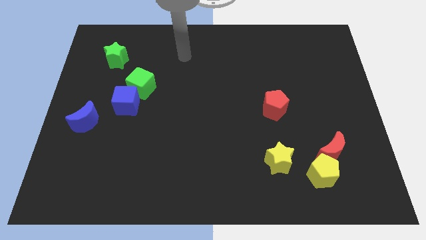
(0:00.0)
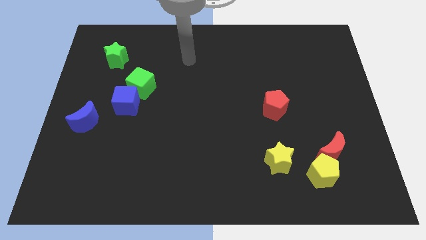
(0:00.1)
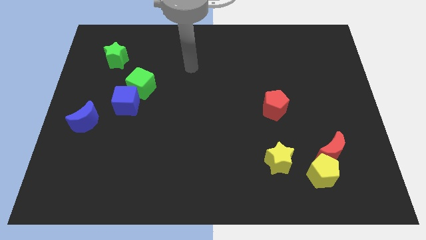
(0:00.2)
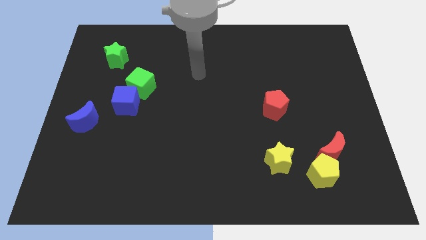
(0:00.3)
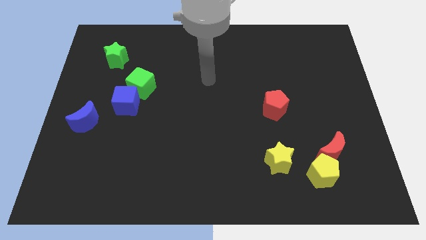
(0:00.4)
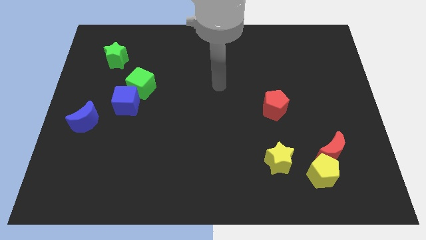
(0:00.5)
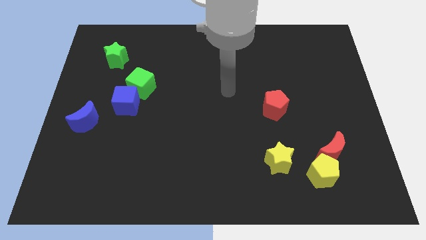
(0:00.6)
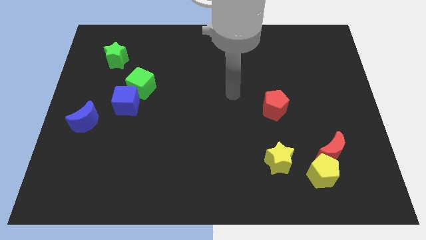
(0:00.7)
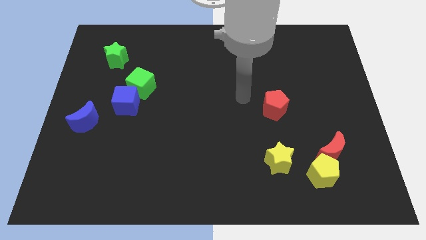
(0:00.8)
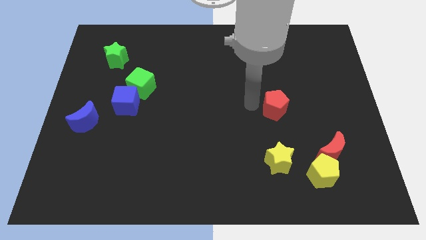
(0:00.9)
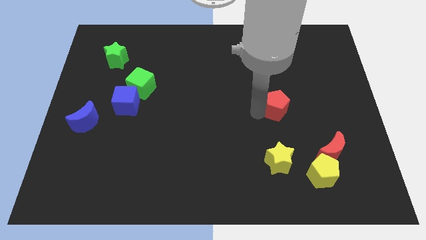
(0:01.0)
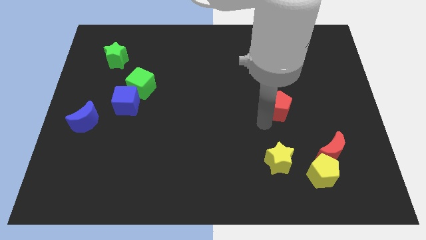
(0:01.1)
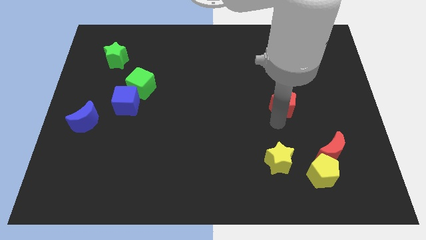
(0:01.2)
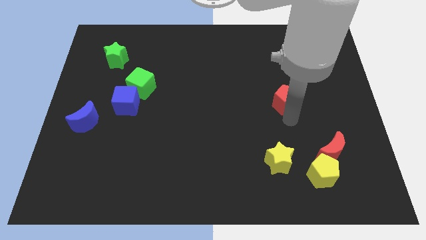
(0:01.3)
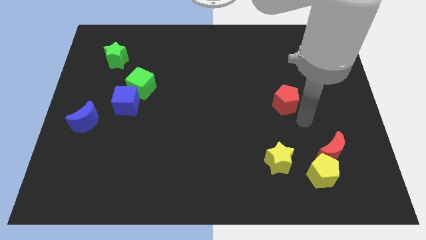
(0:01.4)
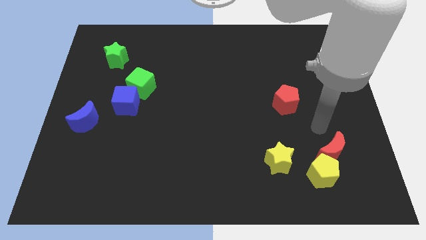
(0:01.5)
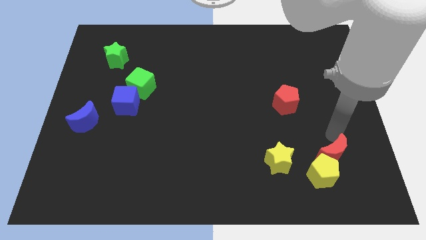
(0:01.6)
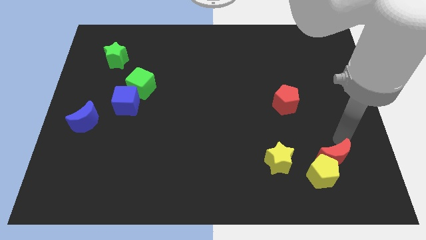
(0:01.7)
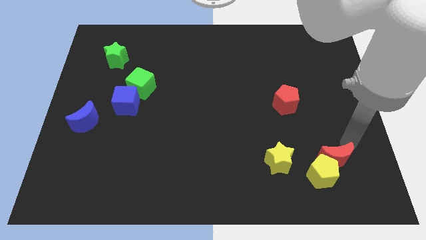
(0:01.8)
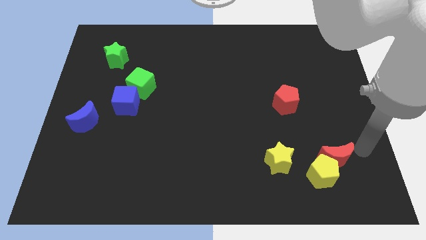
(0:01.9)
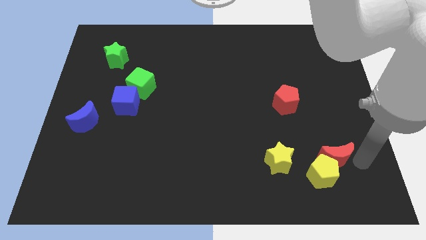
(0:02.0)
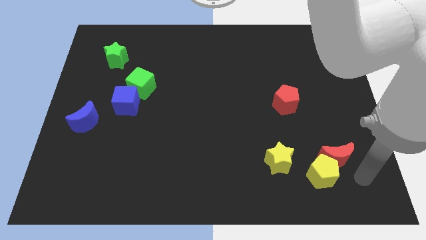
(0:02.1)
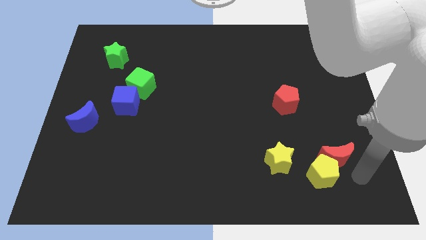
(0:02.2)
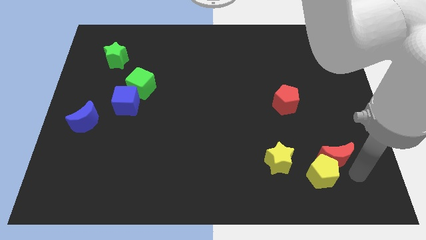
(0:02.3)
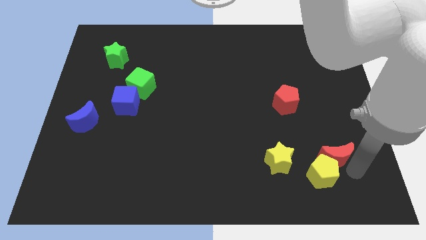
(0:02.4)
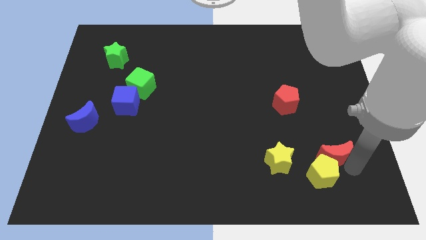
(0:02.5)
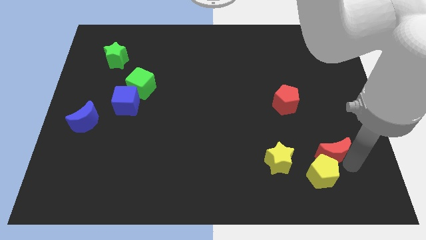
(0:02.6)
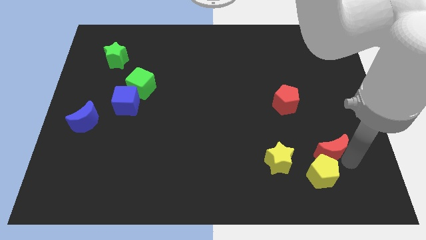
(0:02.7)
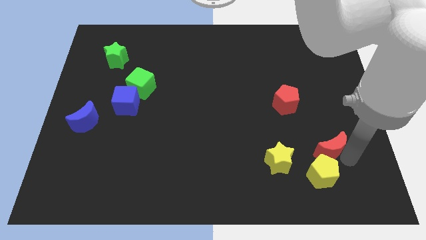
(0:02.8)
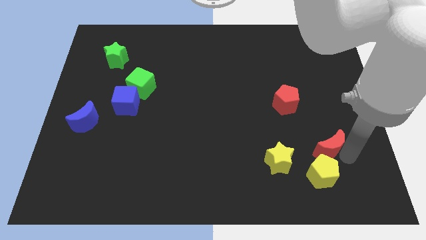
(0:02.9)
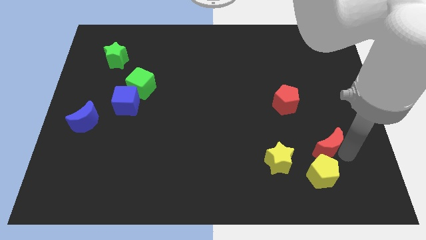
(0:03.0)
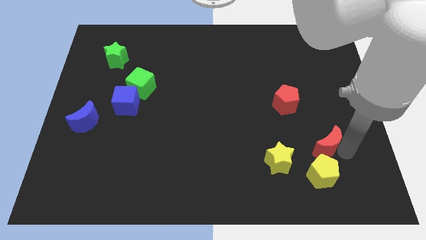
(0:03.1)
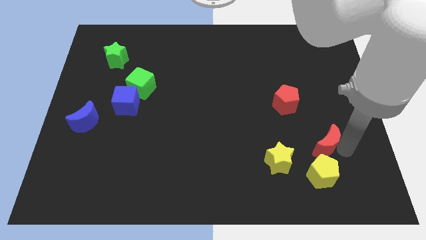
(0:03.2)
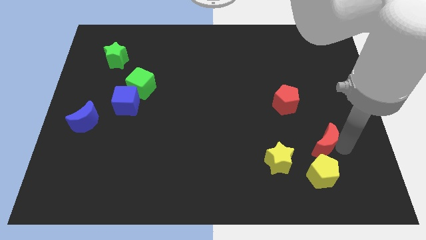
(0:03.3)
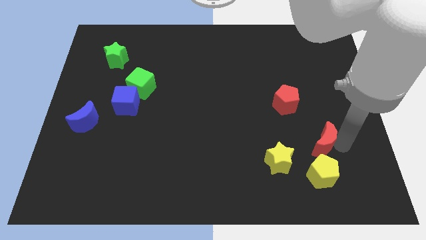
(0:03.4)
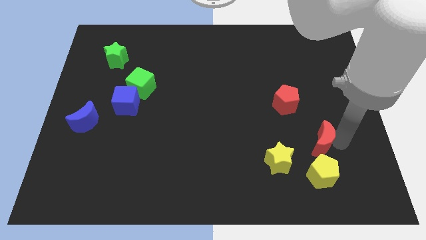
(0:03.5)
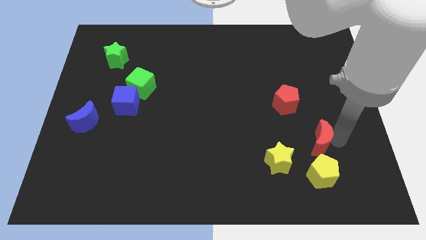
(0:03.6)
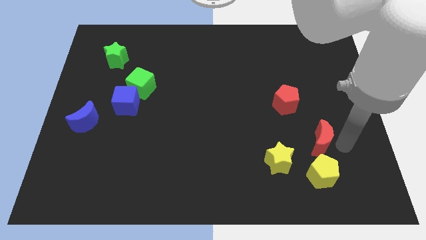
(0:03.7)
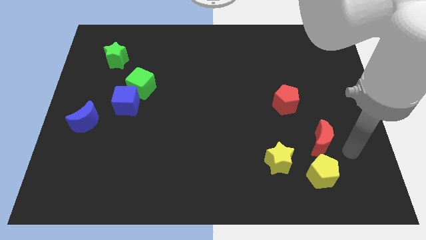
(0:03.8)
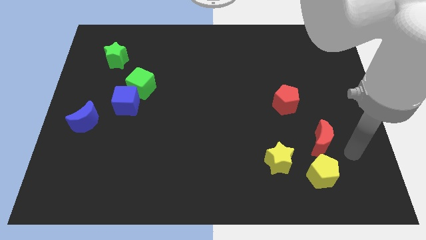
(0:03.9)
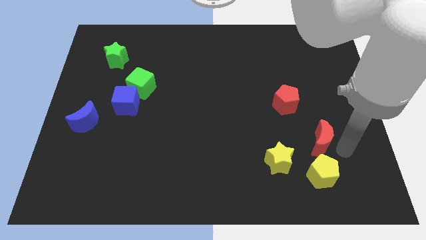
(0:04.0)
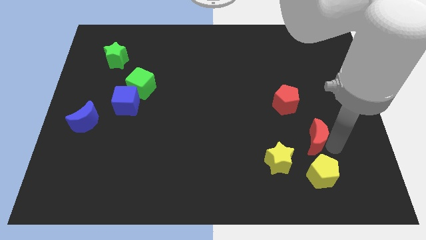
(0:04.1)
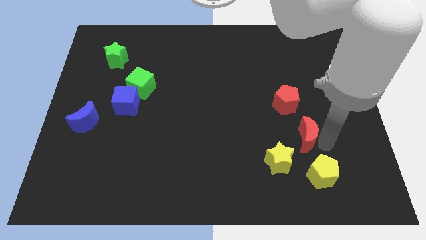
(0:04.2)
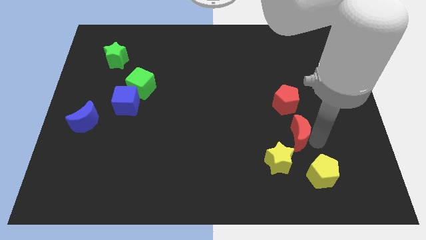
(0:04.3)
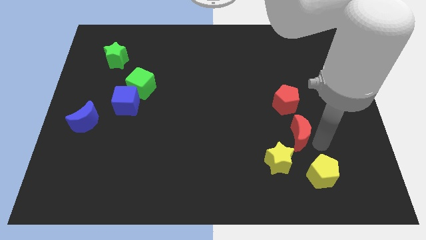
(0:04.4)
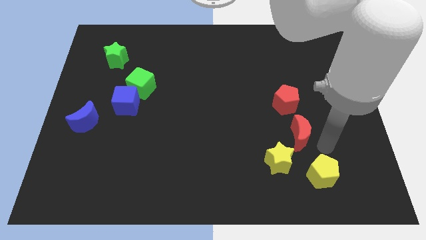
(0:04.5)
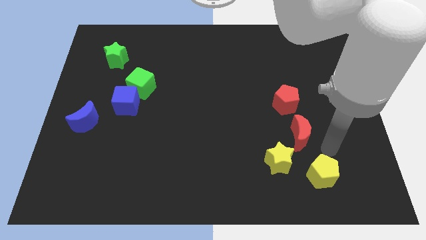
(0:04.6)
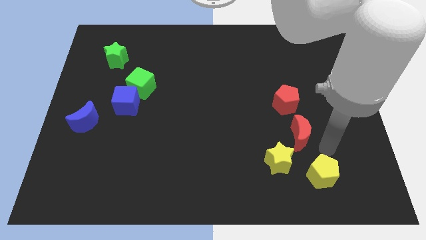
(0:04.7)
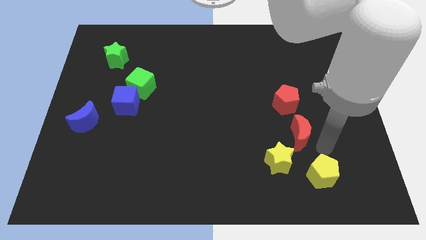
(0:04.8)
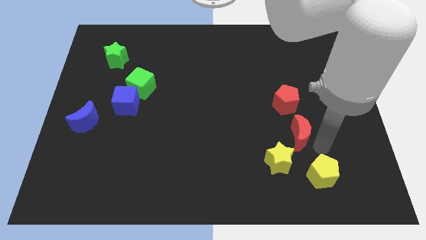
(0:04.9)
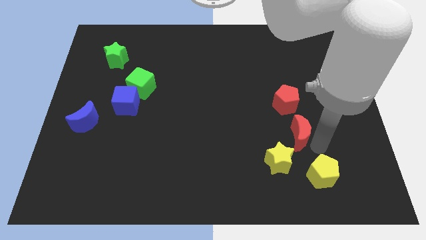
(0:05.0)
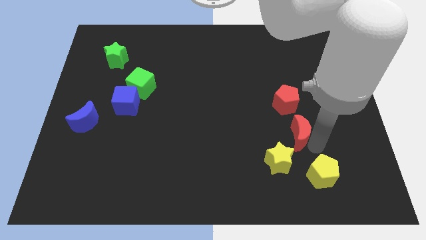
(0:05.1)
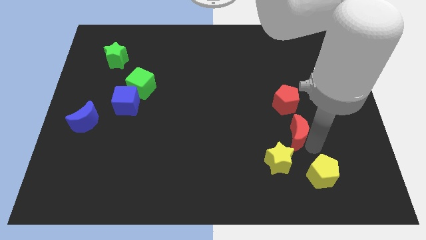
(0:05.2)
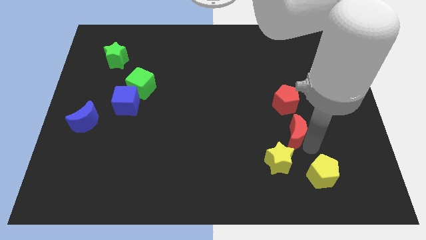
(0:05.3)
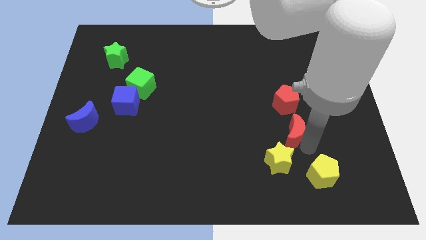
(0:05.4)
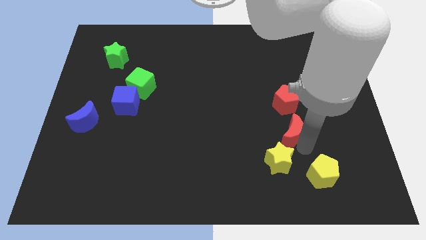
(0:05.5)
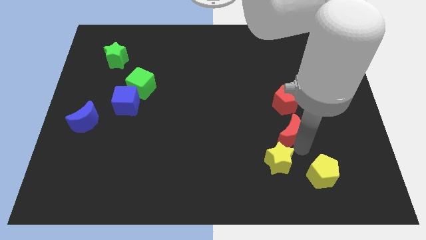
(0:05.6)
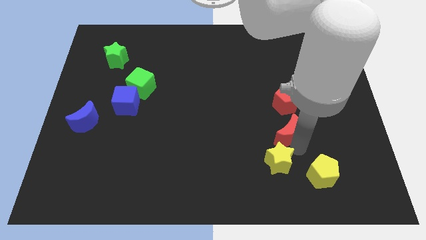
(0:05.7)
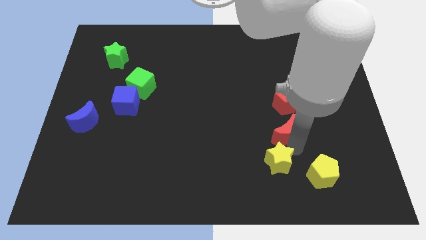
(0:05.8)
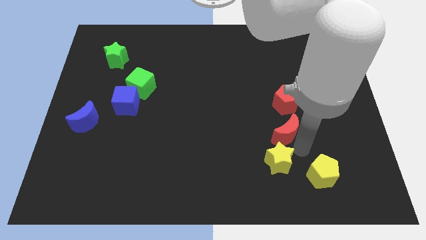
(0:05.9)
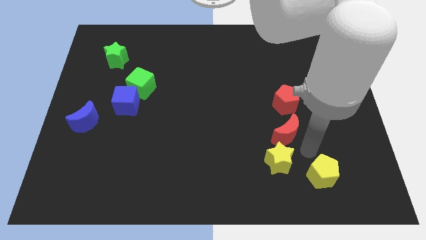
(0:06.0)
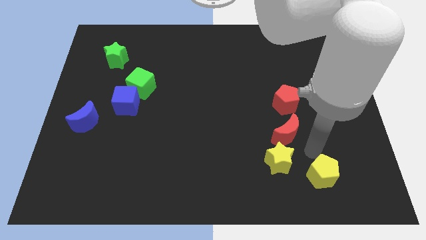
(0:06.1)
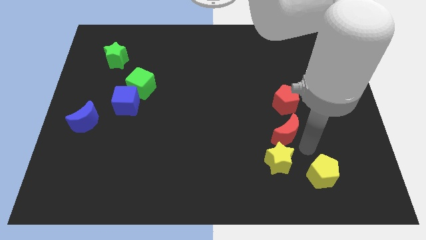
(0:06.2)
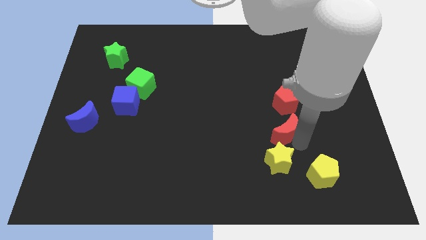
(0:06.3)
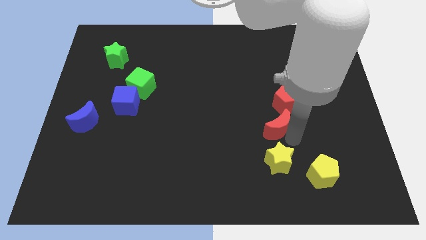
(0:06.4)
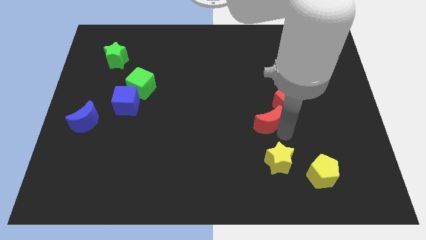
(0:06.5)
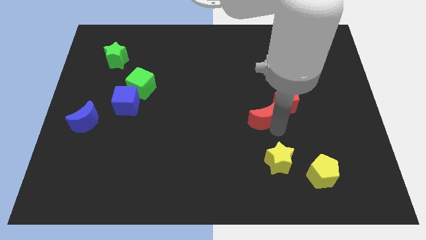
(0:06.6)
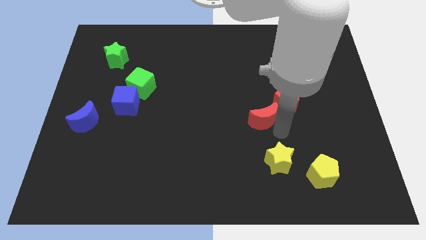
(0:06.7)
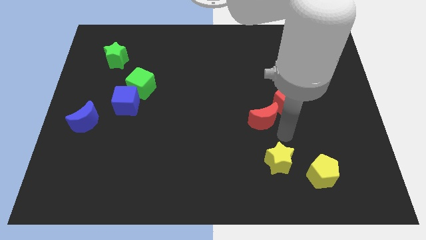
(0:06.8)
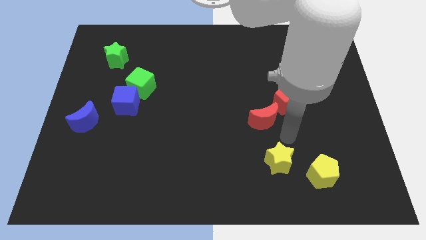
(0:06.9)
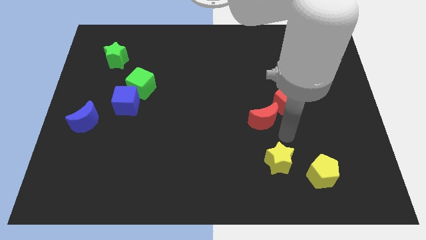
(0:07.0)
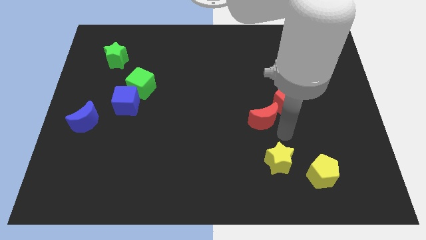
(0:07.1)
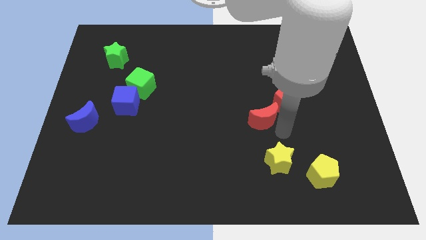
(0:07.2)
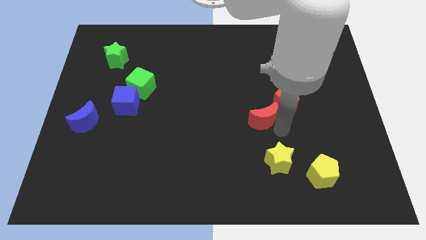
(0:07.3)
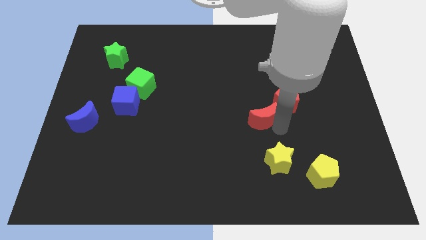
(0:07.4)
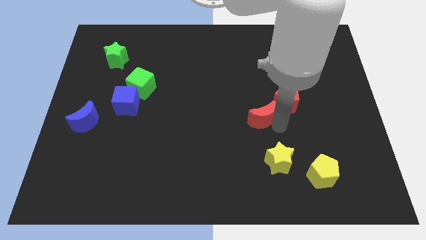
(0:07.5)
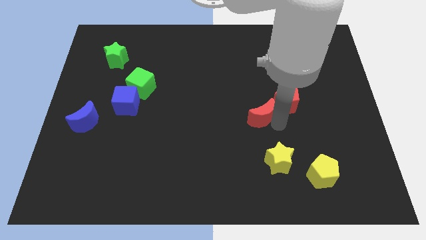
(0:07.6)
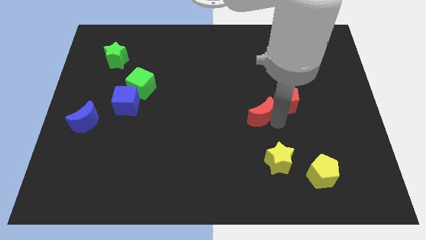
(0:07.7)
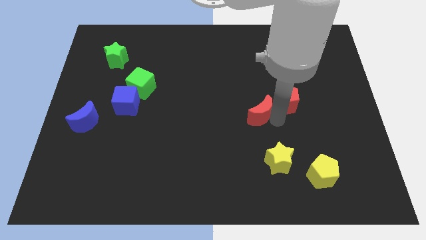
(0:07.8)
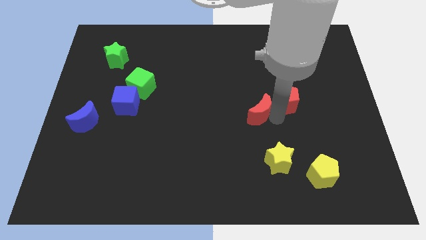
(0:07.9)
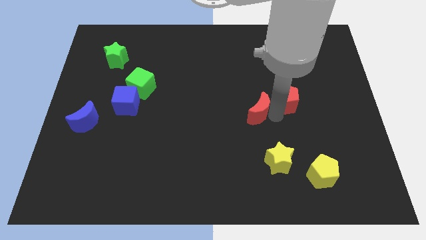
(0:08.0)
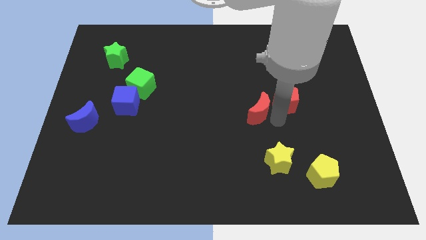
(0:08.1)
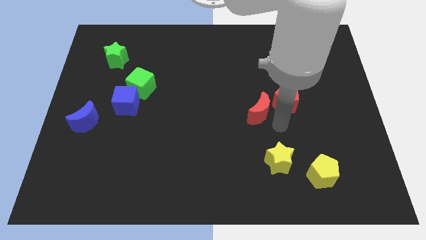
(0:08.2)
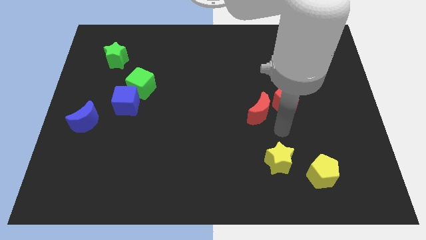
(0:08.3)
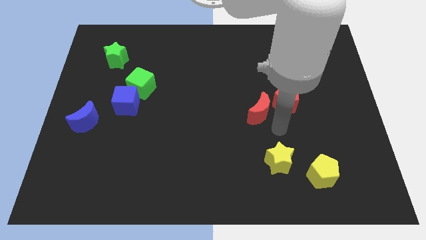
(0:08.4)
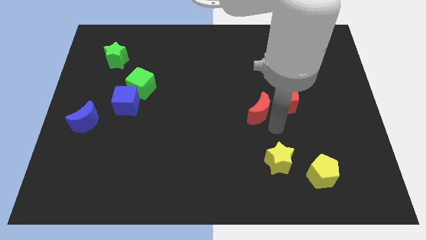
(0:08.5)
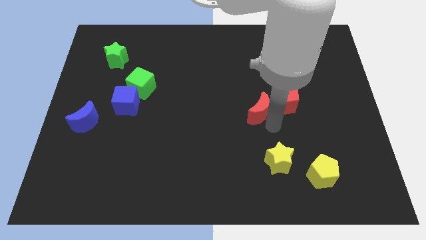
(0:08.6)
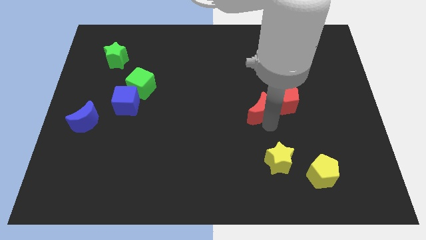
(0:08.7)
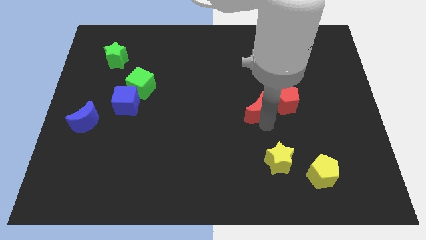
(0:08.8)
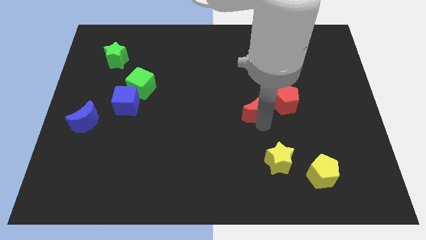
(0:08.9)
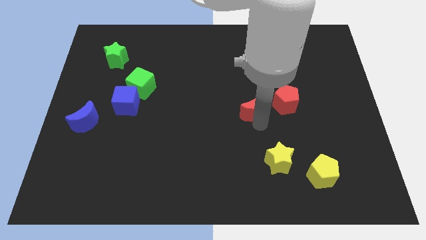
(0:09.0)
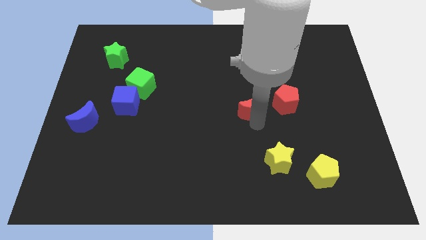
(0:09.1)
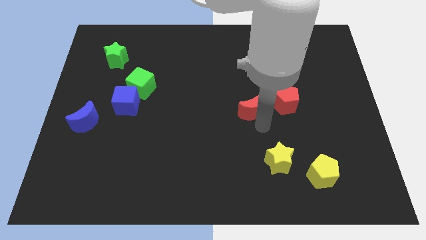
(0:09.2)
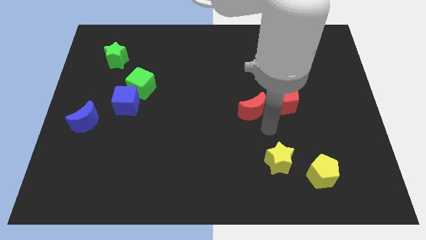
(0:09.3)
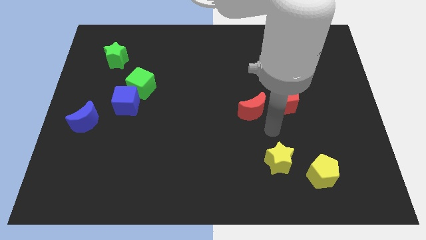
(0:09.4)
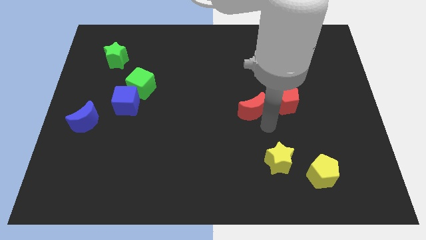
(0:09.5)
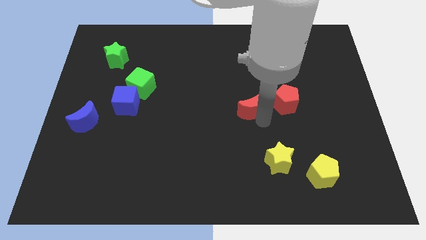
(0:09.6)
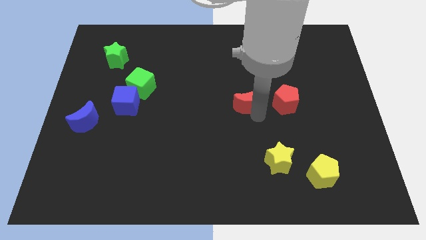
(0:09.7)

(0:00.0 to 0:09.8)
move the red moon diagonally upwards and to the left
